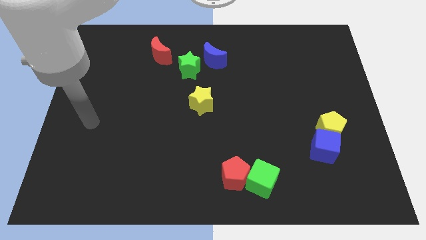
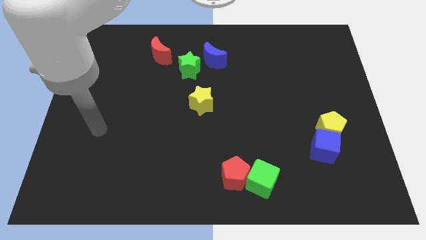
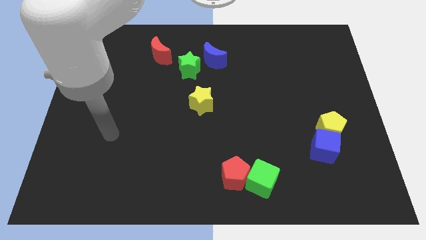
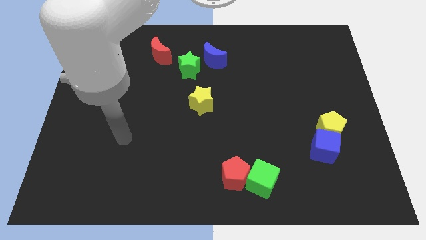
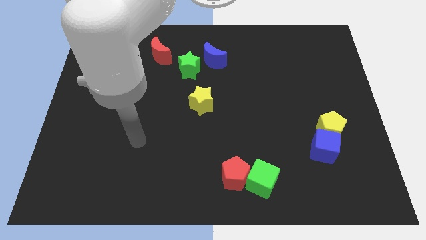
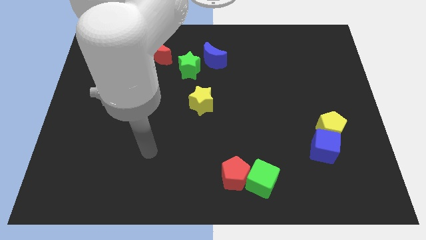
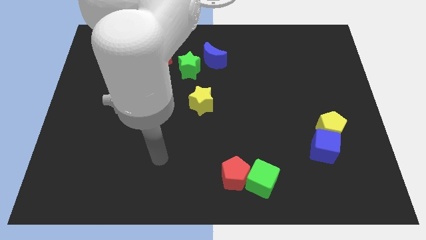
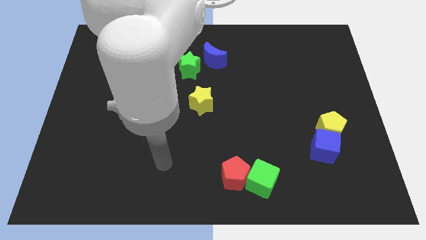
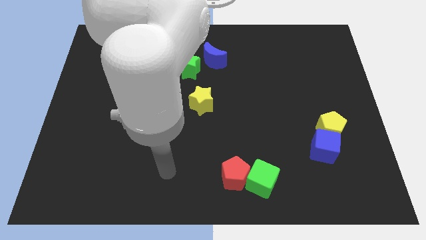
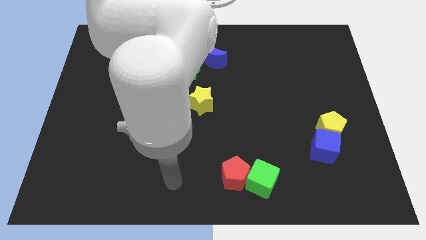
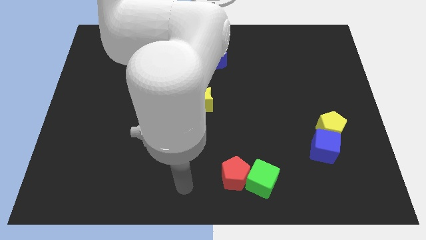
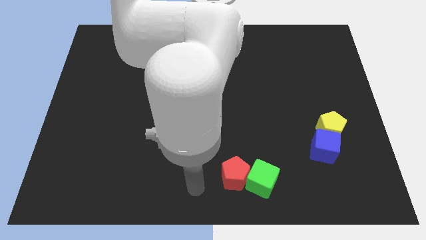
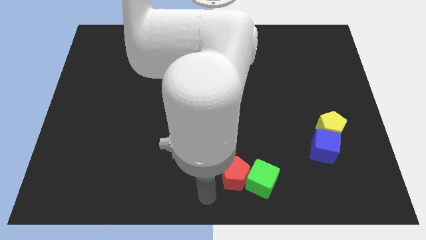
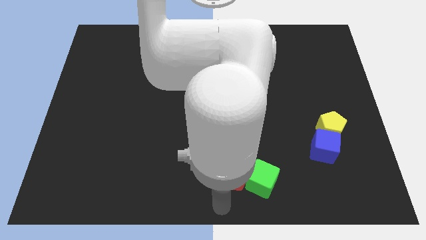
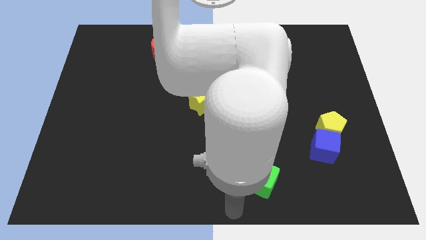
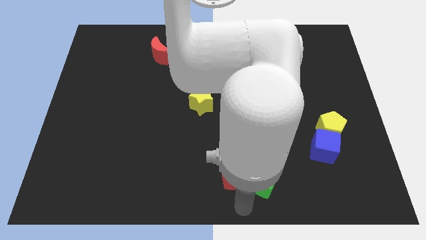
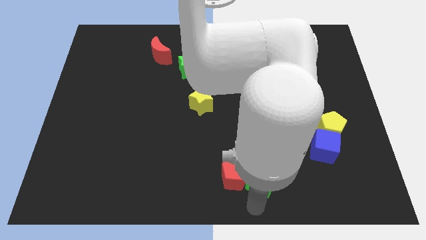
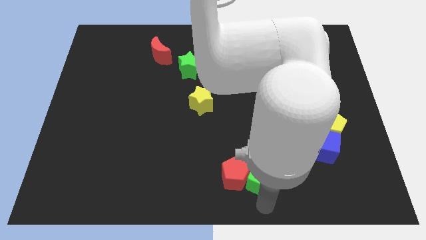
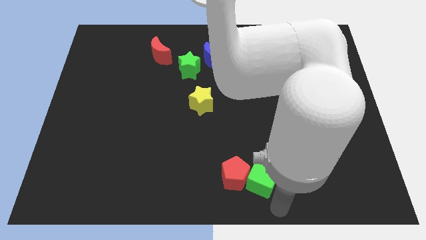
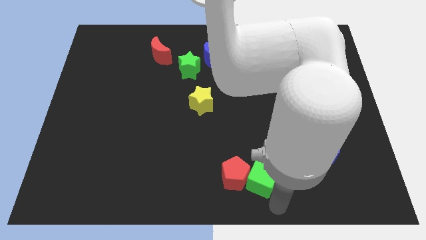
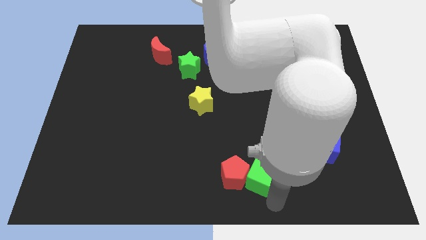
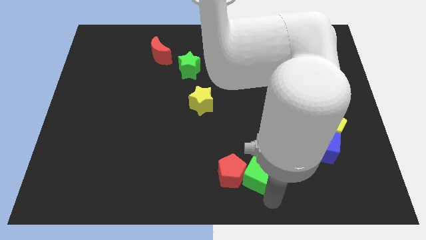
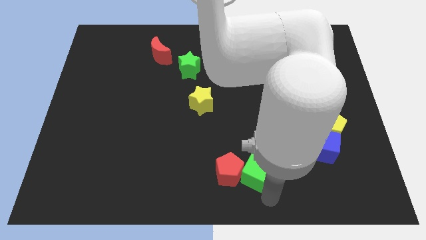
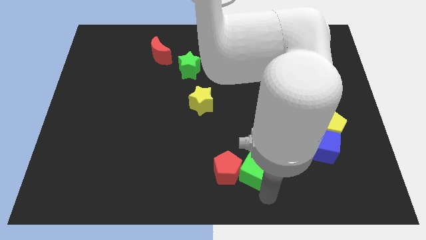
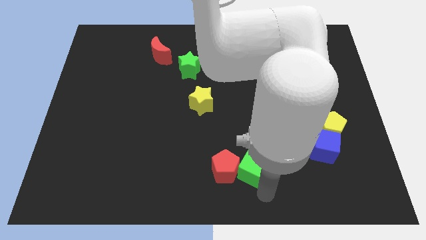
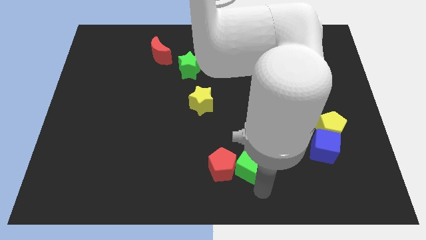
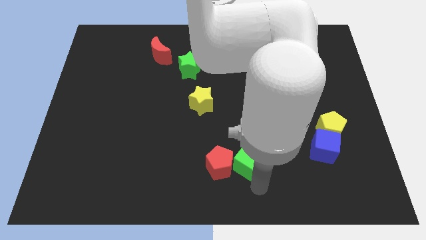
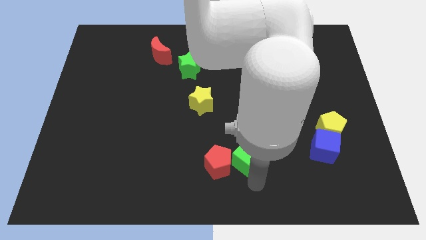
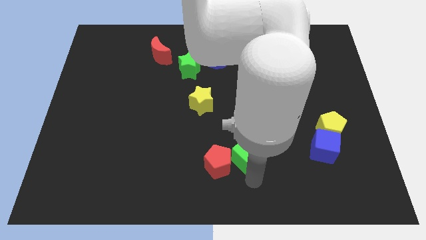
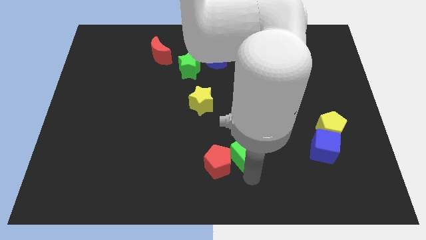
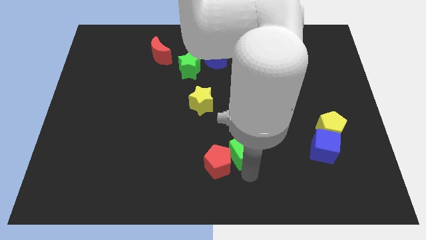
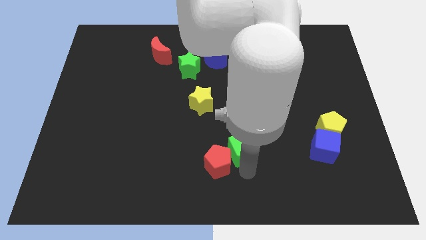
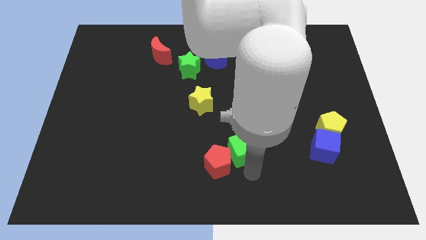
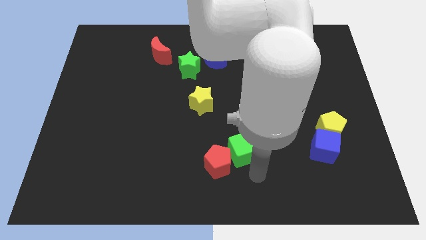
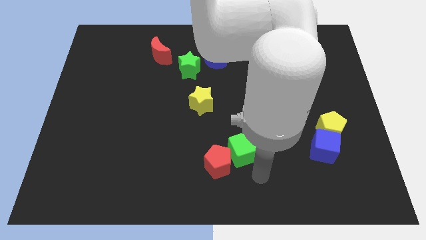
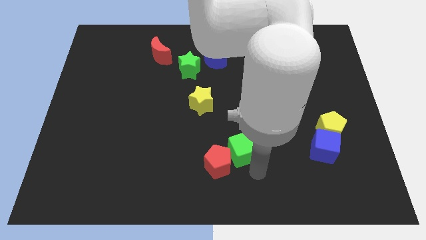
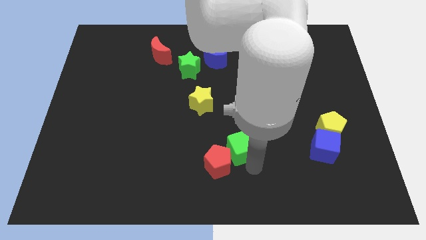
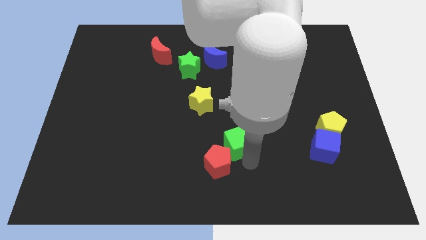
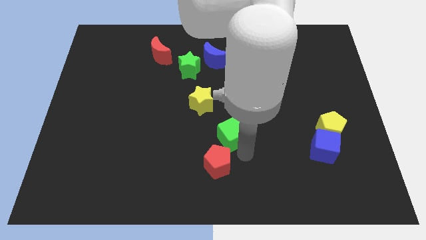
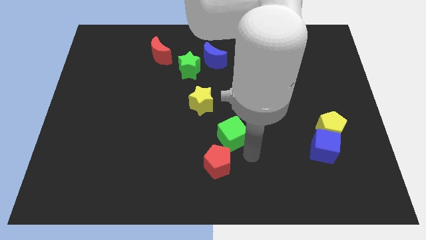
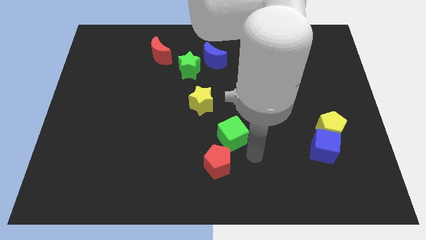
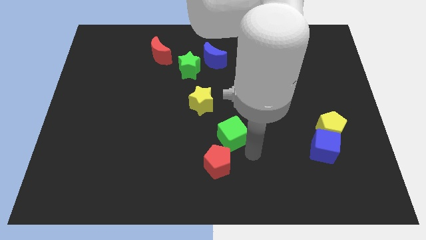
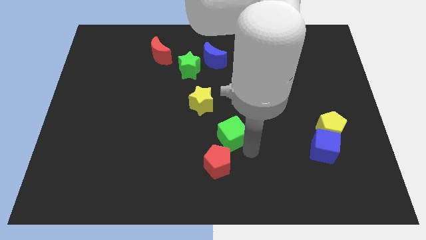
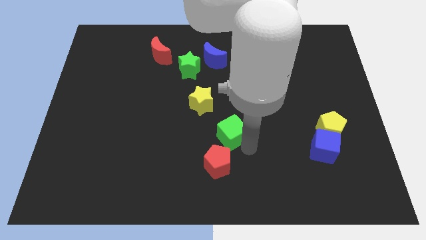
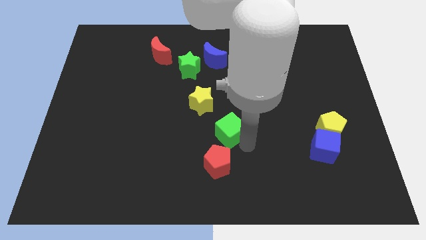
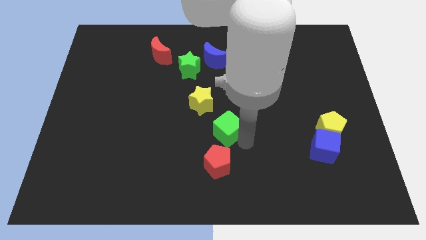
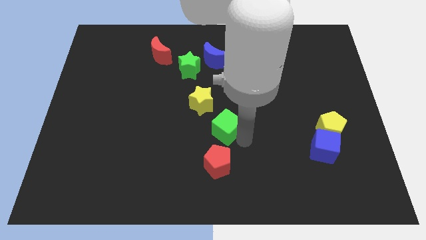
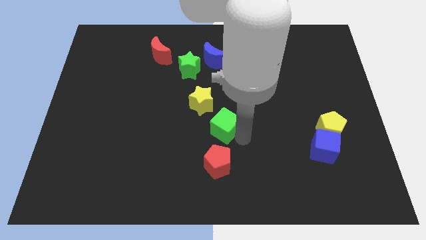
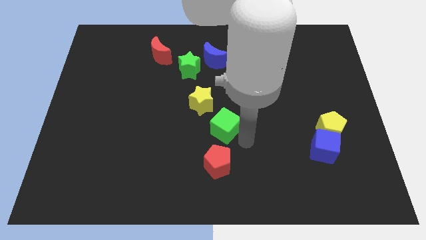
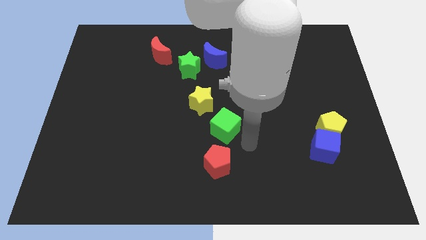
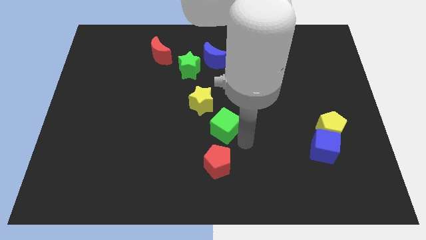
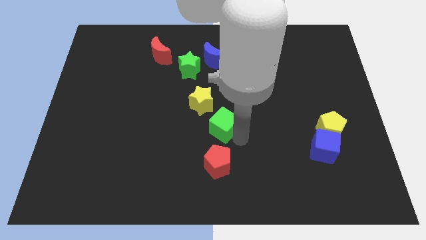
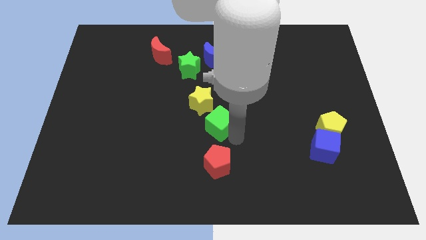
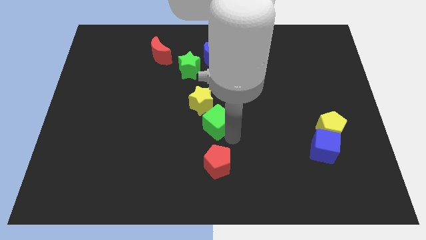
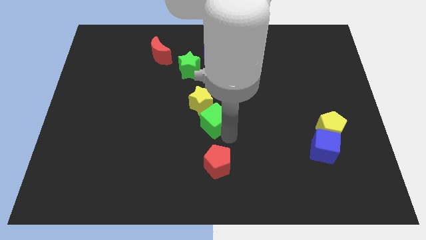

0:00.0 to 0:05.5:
slide the green cube to the yellow star
